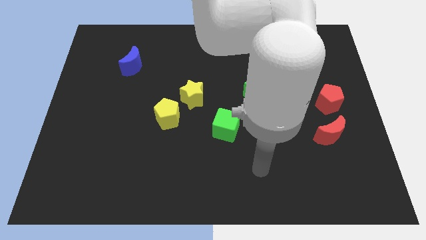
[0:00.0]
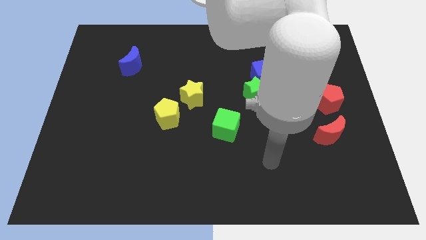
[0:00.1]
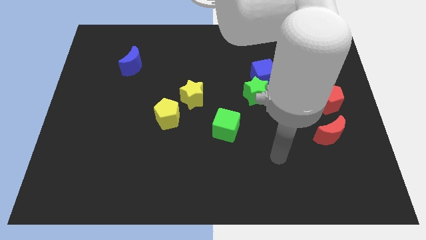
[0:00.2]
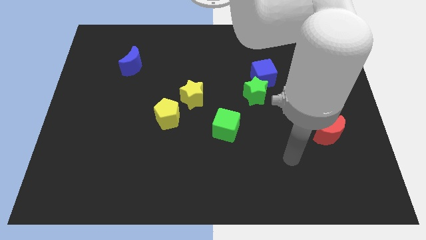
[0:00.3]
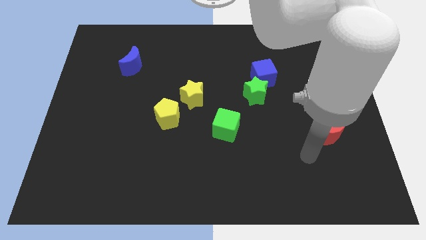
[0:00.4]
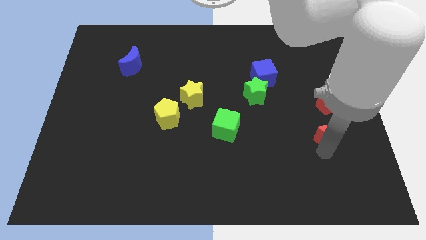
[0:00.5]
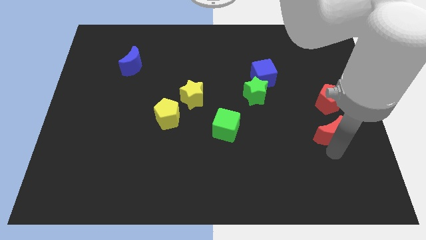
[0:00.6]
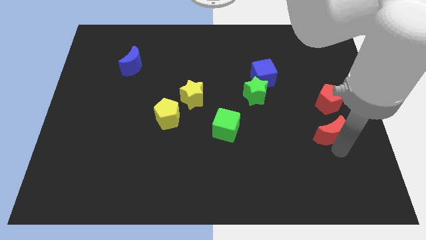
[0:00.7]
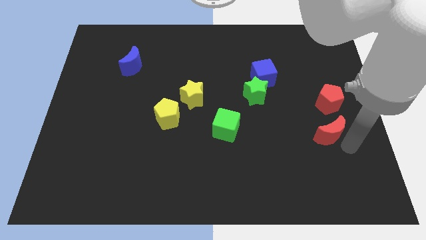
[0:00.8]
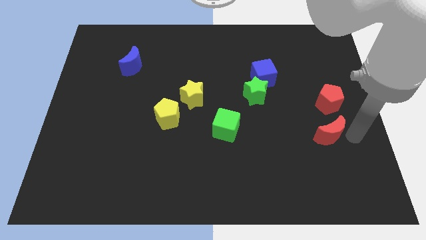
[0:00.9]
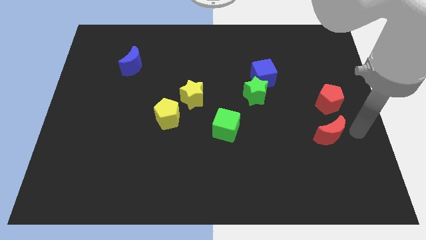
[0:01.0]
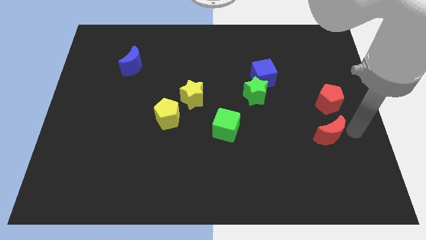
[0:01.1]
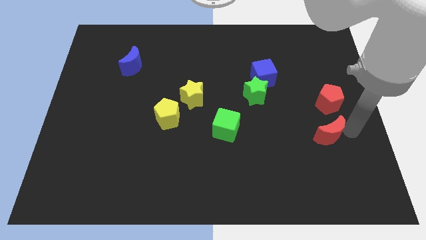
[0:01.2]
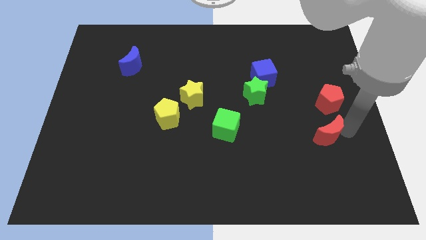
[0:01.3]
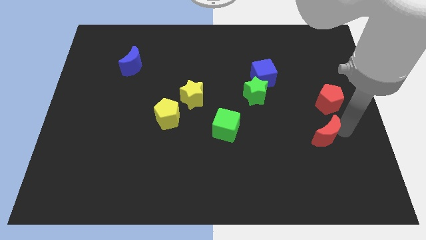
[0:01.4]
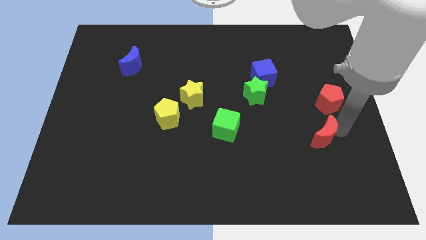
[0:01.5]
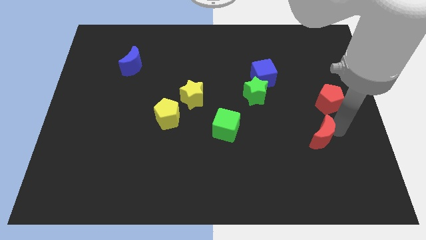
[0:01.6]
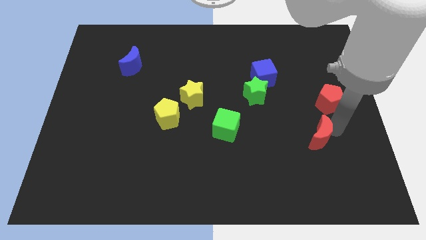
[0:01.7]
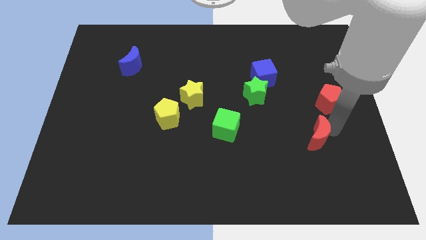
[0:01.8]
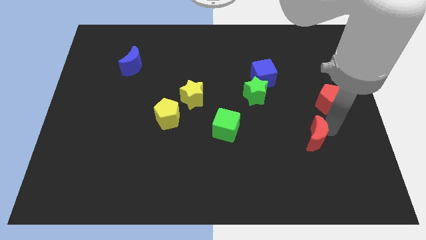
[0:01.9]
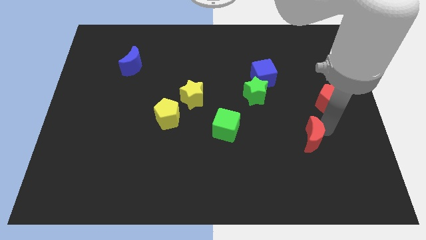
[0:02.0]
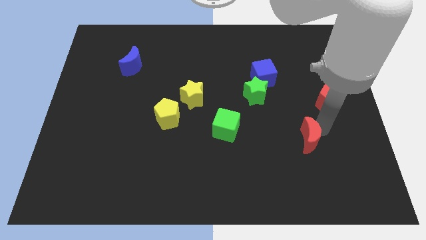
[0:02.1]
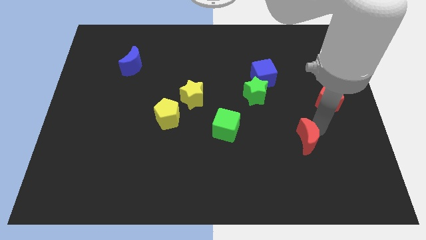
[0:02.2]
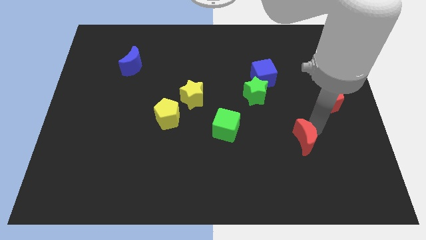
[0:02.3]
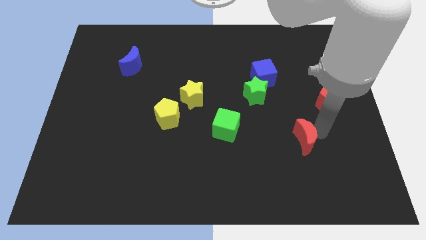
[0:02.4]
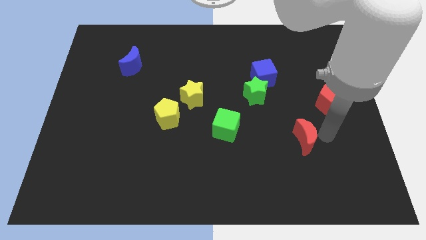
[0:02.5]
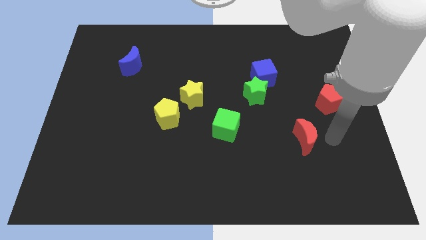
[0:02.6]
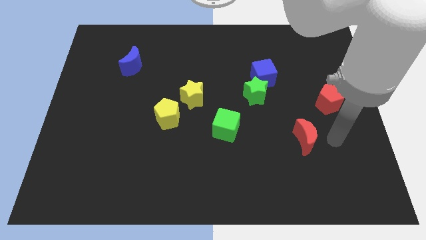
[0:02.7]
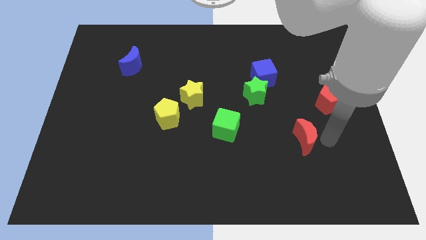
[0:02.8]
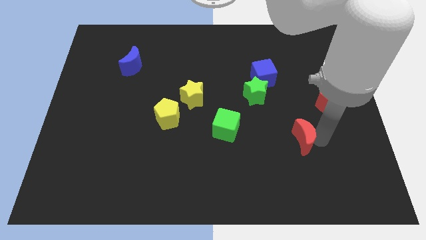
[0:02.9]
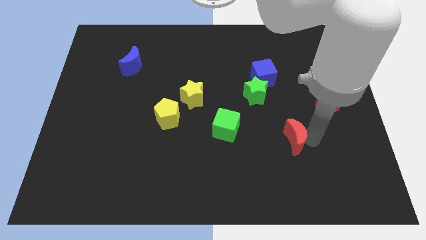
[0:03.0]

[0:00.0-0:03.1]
slightly push the red moon left

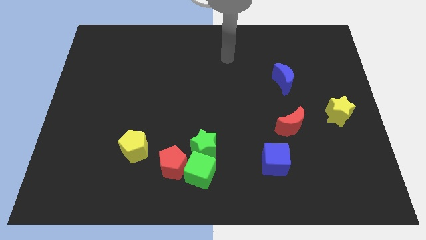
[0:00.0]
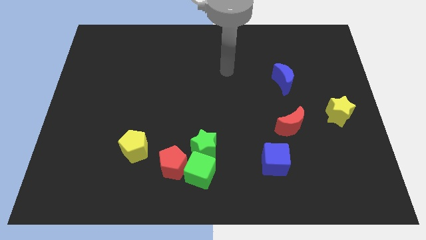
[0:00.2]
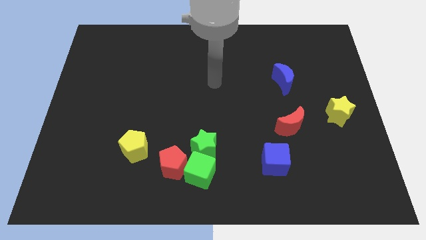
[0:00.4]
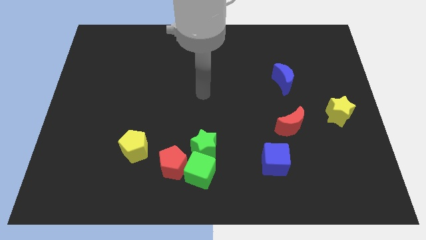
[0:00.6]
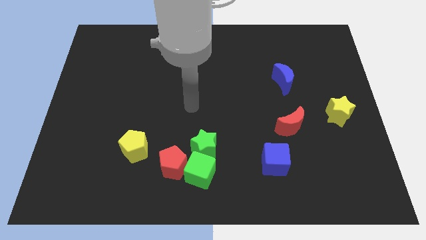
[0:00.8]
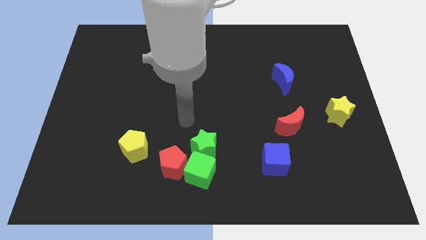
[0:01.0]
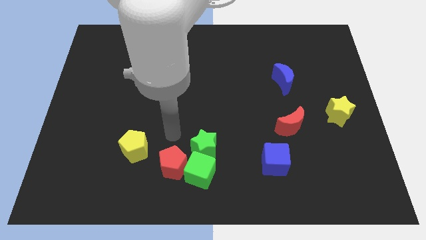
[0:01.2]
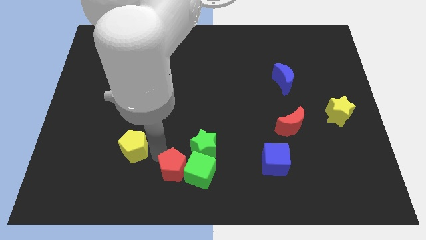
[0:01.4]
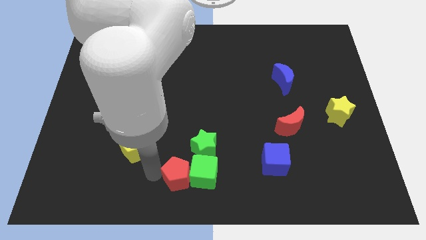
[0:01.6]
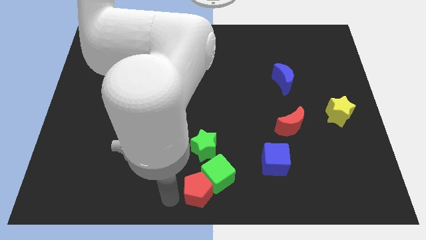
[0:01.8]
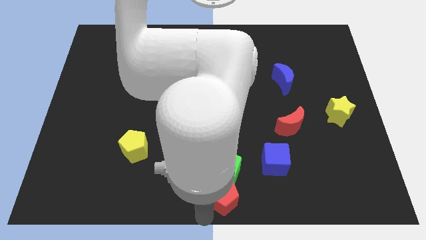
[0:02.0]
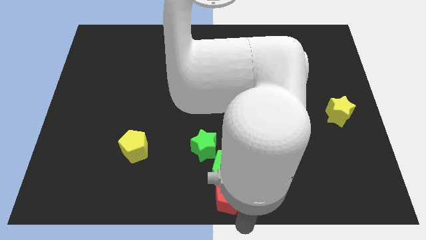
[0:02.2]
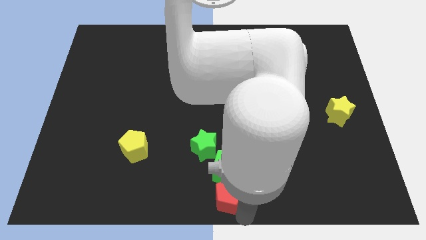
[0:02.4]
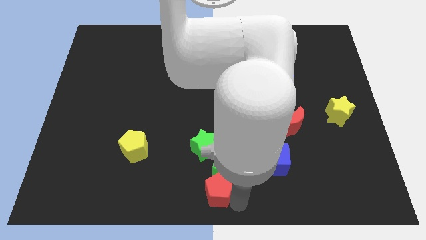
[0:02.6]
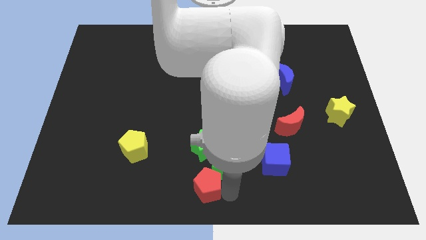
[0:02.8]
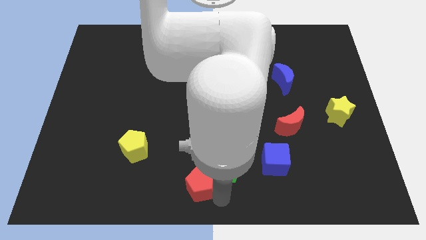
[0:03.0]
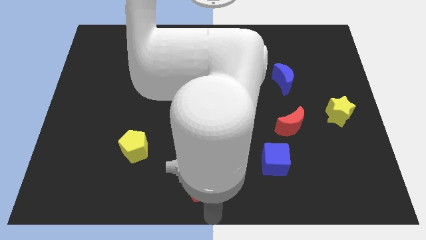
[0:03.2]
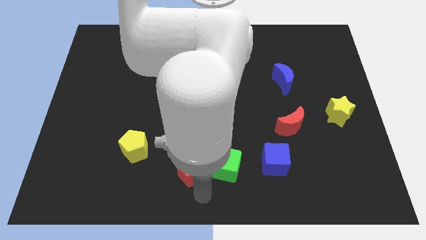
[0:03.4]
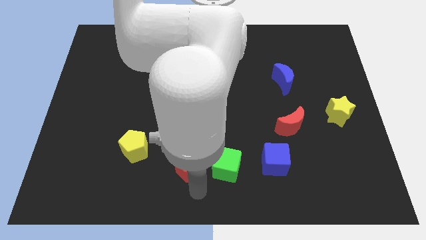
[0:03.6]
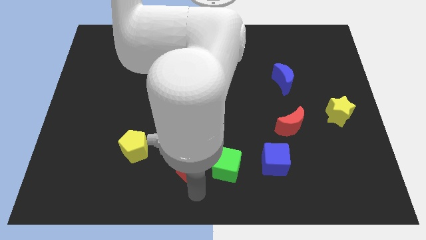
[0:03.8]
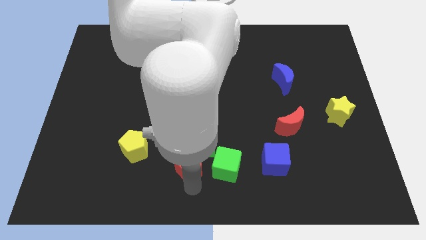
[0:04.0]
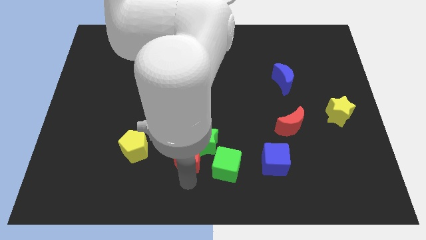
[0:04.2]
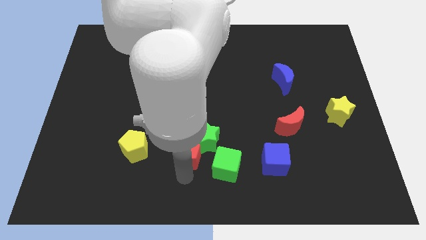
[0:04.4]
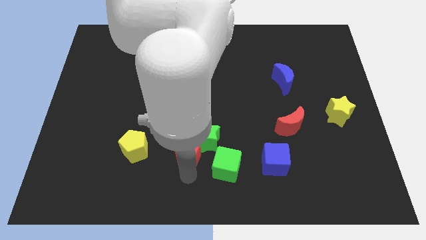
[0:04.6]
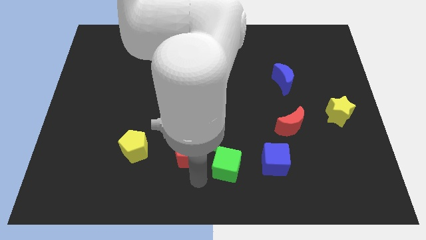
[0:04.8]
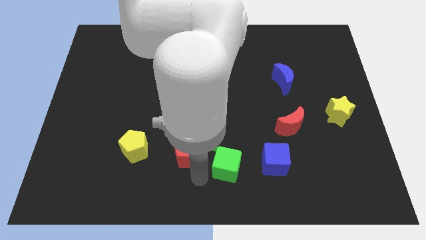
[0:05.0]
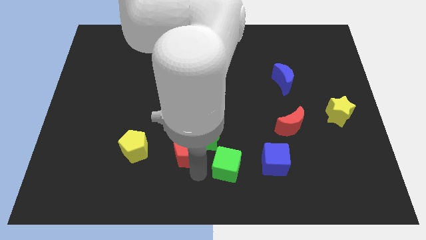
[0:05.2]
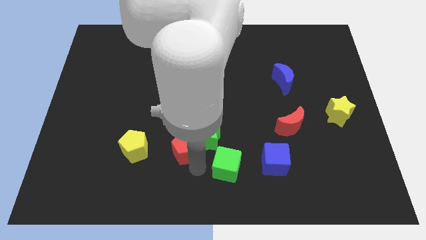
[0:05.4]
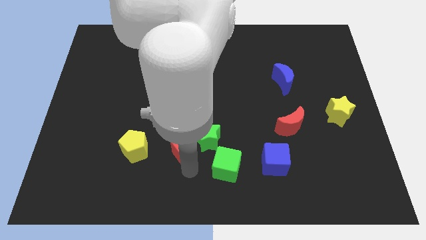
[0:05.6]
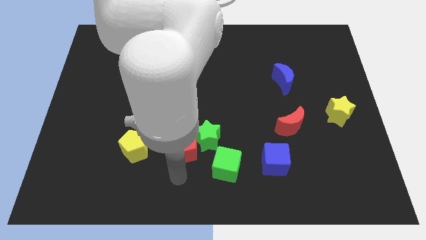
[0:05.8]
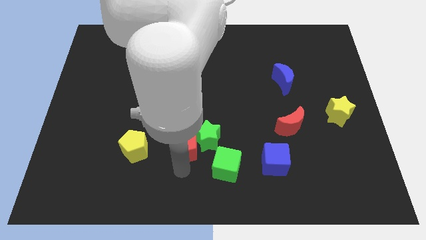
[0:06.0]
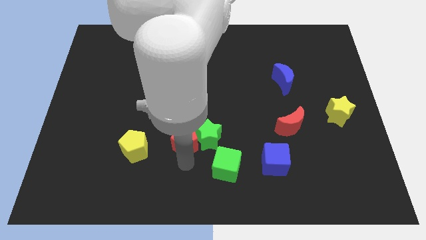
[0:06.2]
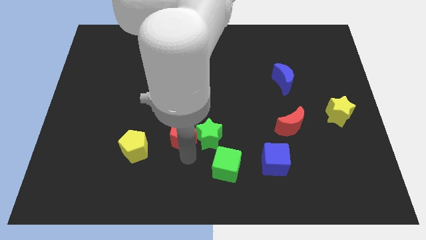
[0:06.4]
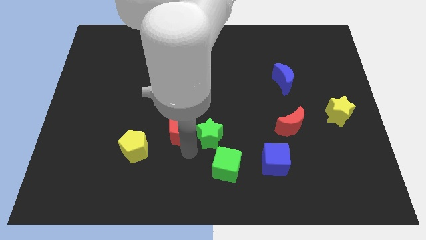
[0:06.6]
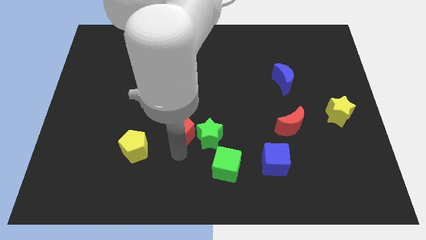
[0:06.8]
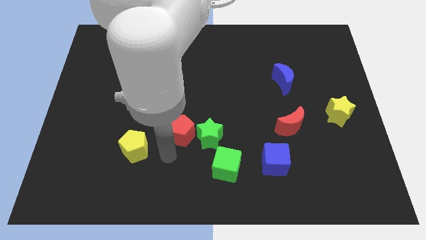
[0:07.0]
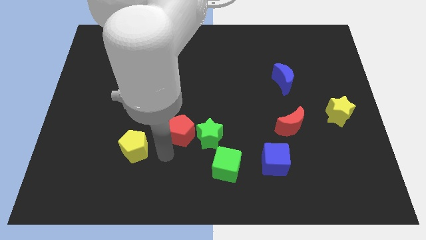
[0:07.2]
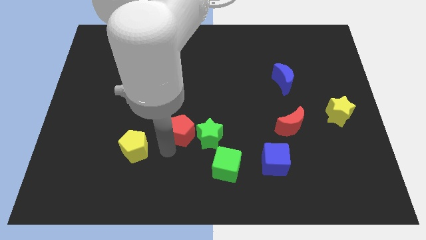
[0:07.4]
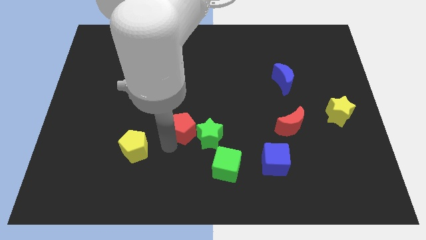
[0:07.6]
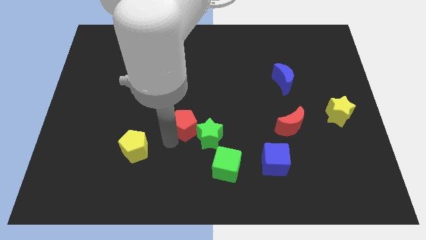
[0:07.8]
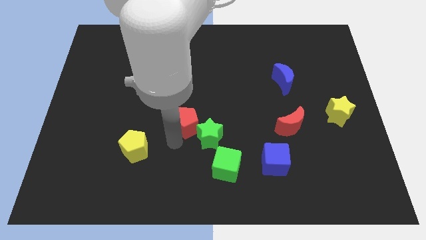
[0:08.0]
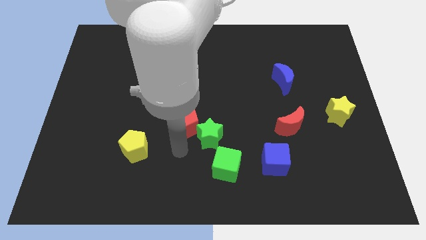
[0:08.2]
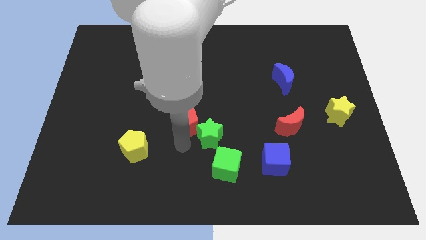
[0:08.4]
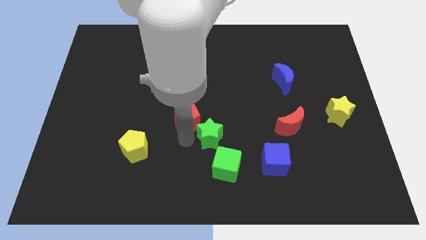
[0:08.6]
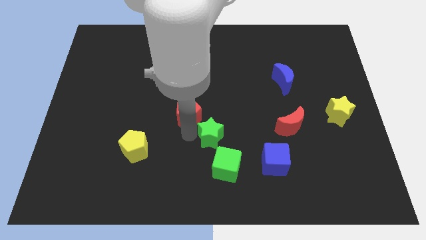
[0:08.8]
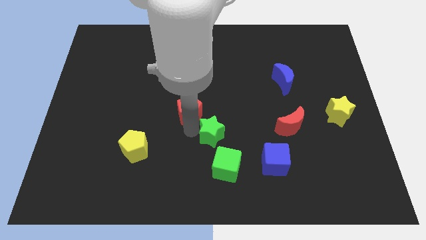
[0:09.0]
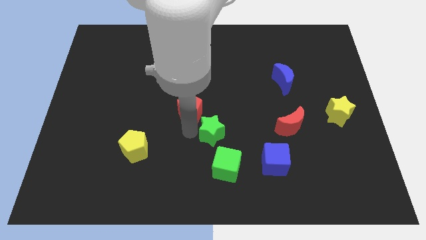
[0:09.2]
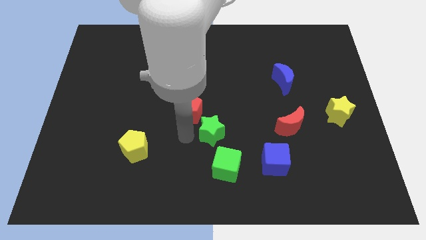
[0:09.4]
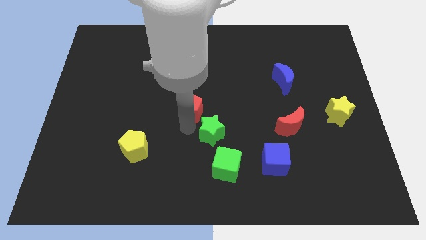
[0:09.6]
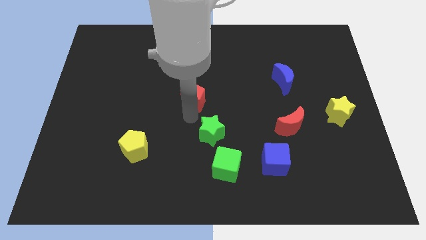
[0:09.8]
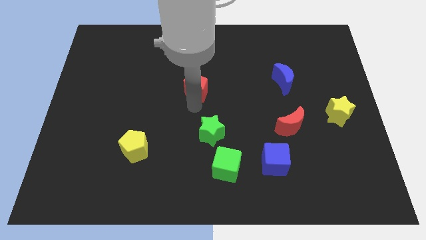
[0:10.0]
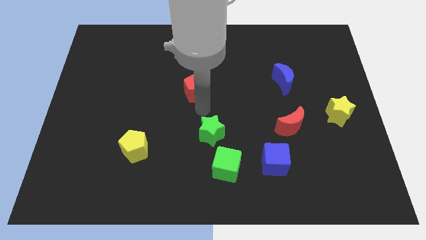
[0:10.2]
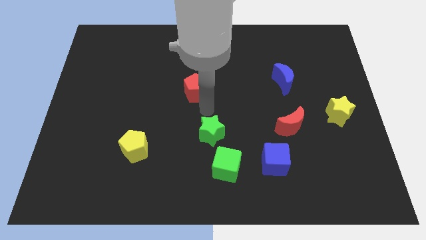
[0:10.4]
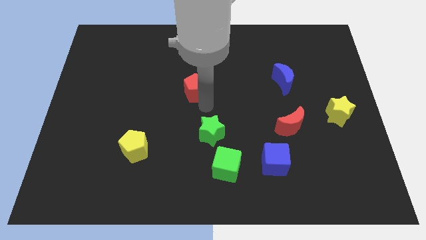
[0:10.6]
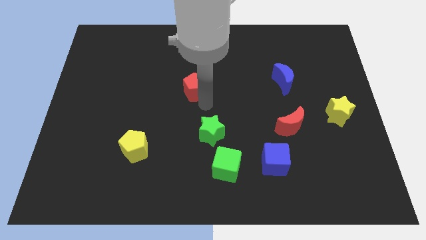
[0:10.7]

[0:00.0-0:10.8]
slide the red pentagon up
